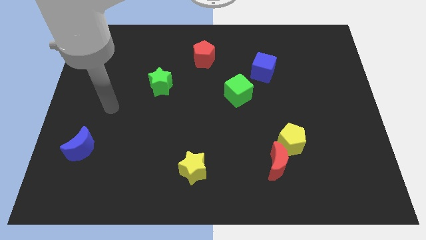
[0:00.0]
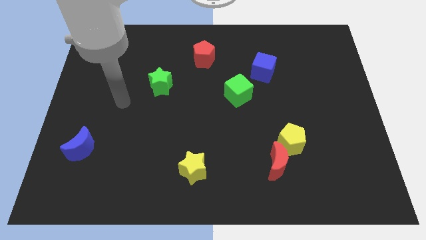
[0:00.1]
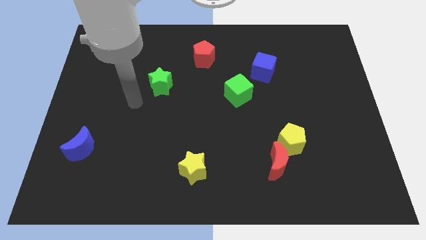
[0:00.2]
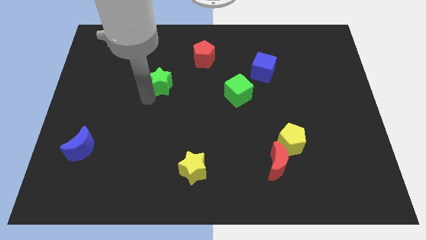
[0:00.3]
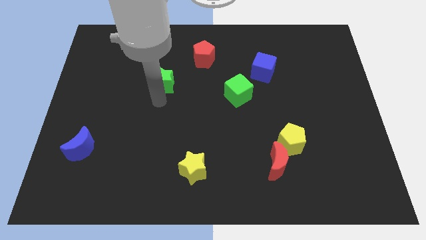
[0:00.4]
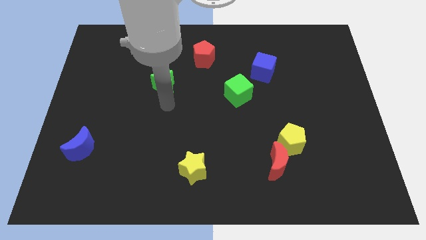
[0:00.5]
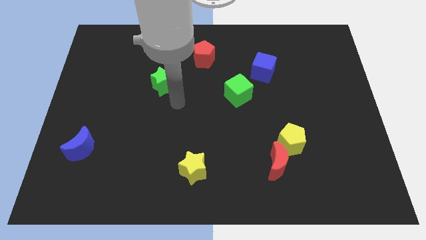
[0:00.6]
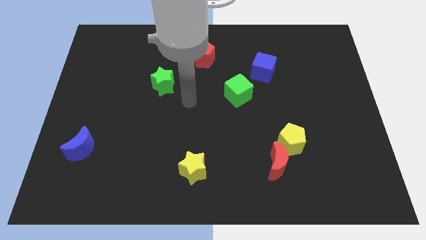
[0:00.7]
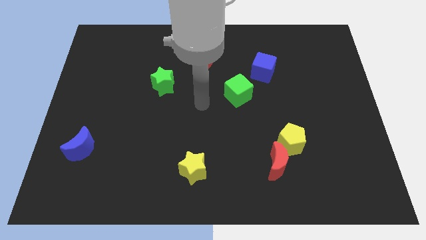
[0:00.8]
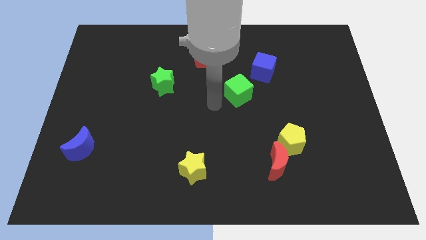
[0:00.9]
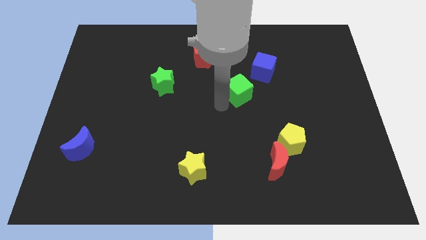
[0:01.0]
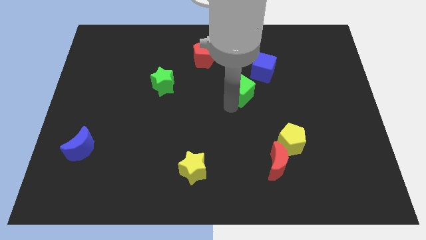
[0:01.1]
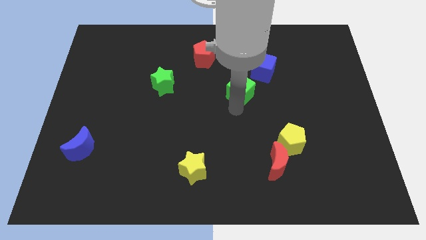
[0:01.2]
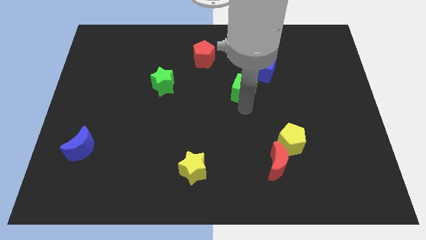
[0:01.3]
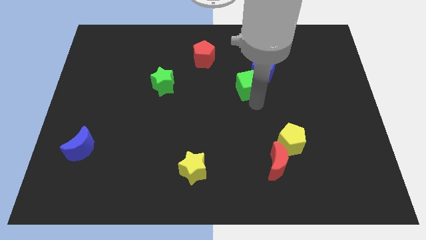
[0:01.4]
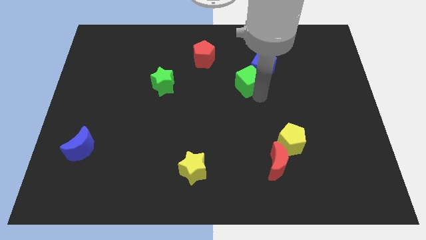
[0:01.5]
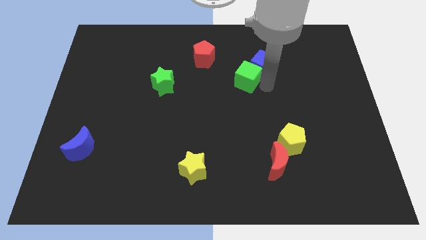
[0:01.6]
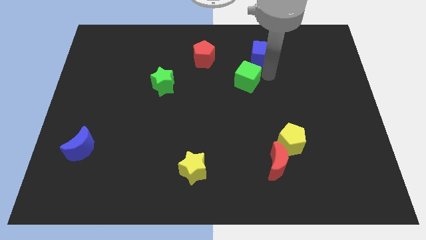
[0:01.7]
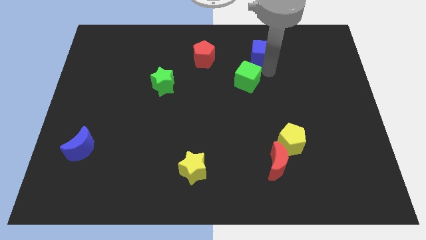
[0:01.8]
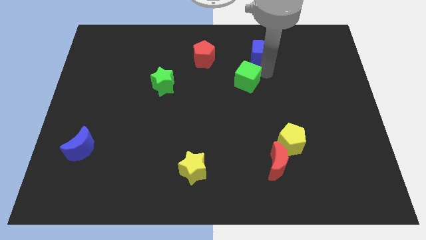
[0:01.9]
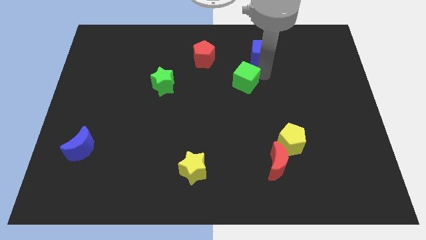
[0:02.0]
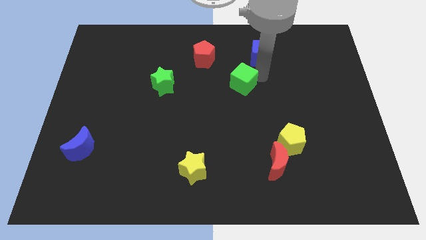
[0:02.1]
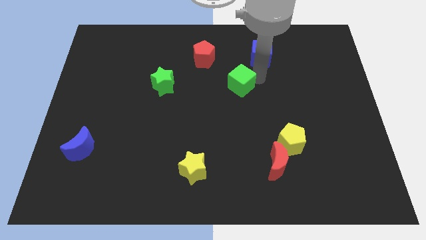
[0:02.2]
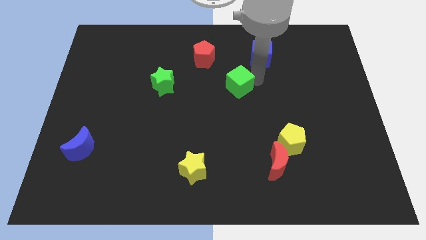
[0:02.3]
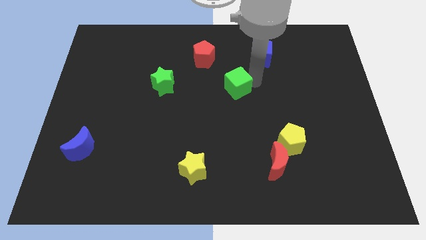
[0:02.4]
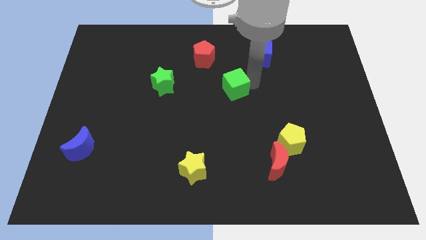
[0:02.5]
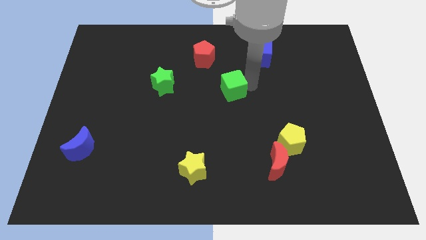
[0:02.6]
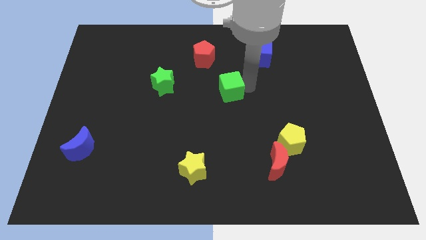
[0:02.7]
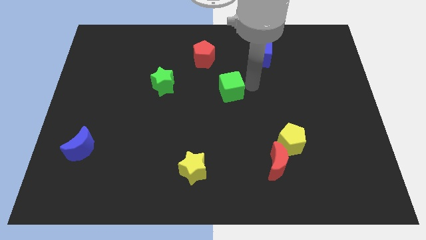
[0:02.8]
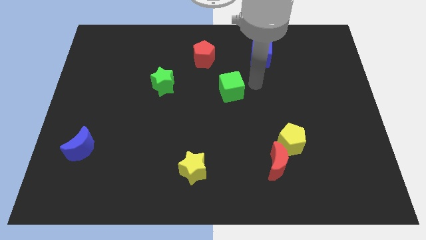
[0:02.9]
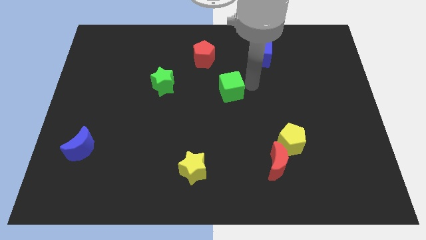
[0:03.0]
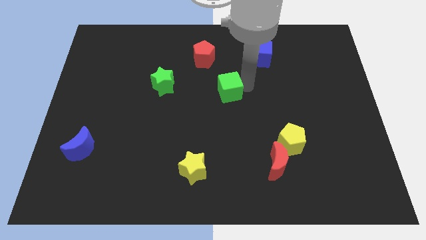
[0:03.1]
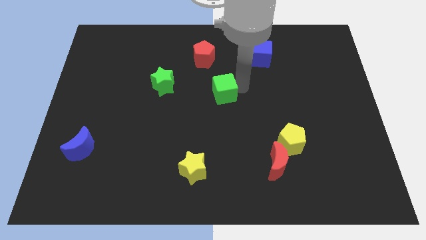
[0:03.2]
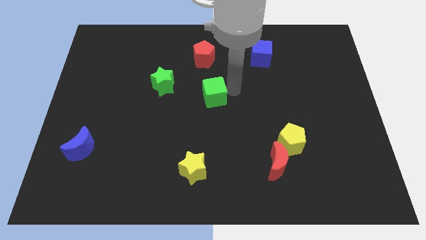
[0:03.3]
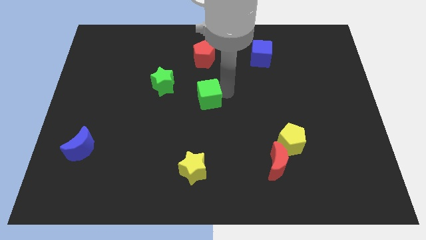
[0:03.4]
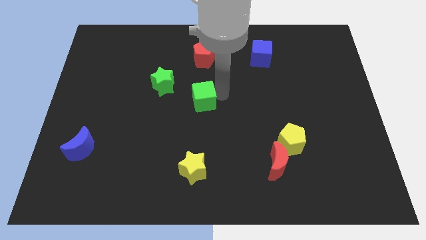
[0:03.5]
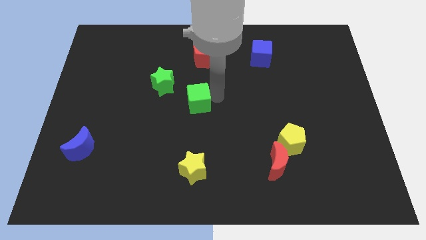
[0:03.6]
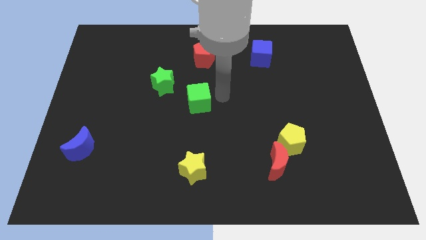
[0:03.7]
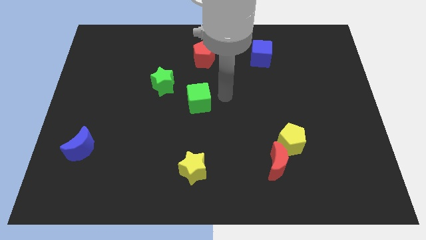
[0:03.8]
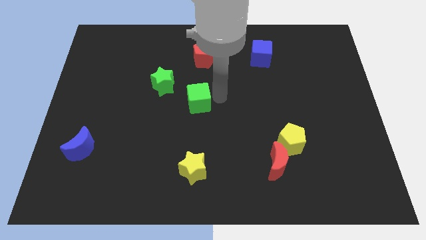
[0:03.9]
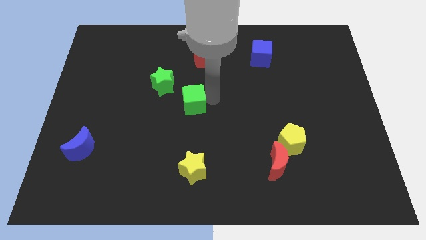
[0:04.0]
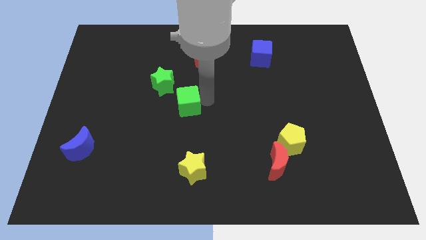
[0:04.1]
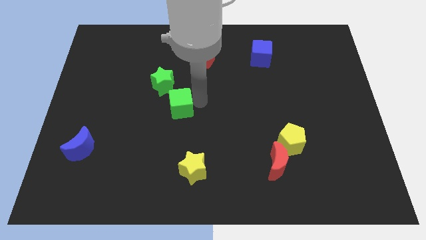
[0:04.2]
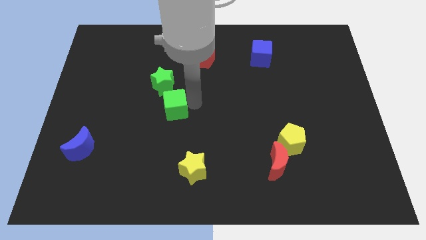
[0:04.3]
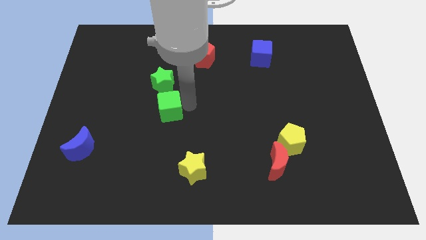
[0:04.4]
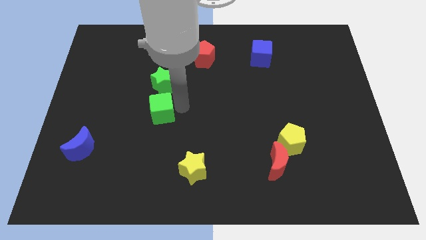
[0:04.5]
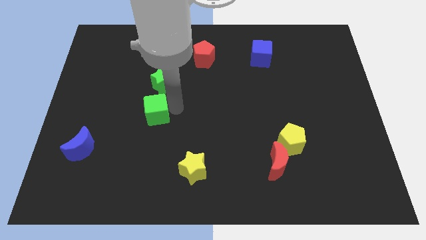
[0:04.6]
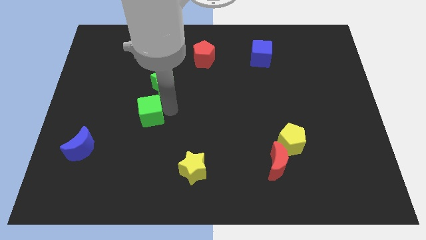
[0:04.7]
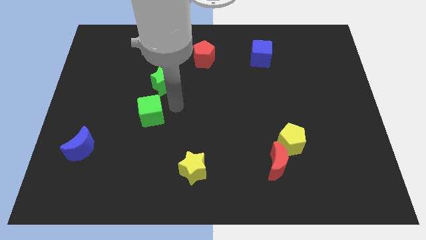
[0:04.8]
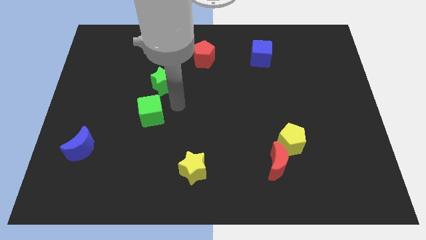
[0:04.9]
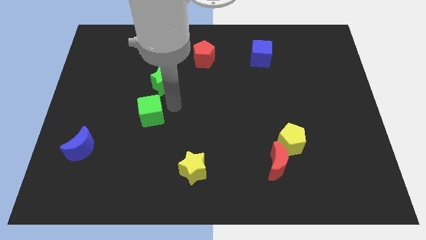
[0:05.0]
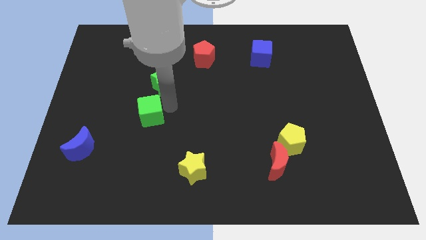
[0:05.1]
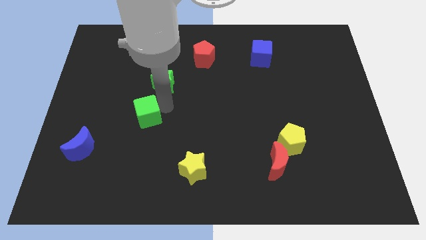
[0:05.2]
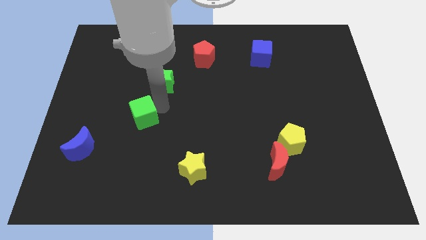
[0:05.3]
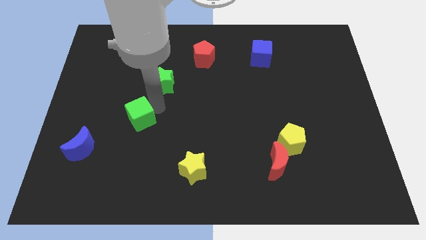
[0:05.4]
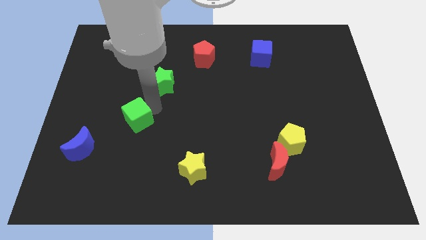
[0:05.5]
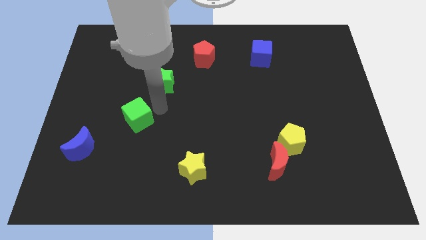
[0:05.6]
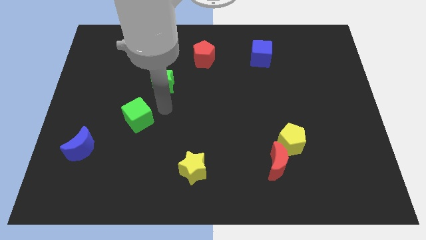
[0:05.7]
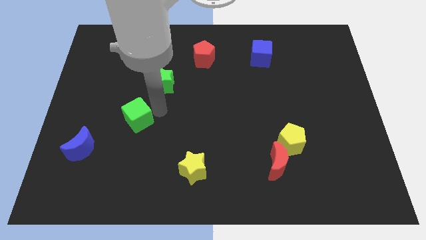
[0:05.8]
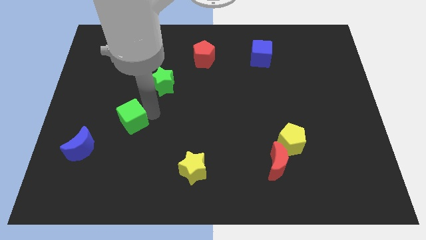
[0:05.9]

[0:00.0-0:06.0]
slide the green cube to the top right of the blue moon

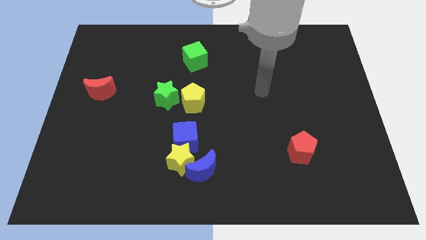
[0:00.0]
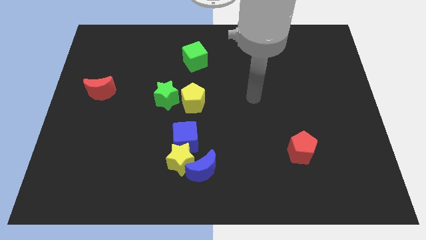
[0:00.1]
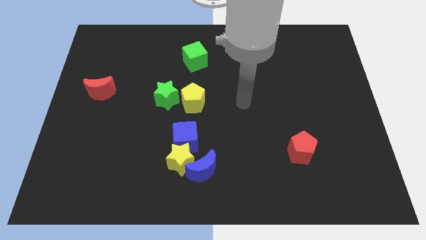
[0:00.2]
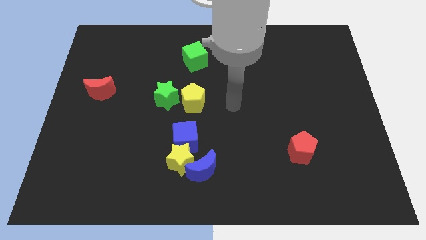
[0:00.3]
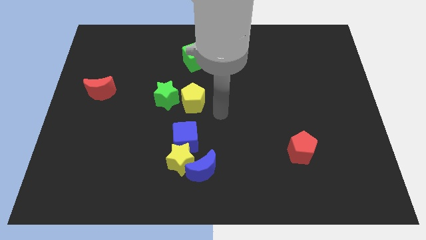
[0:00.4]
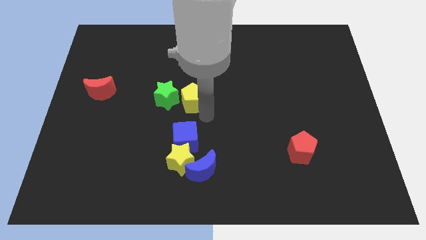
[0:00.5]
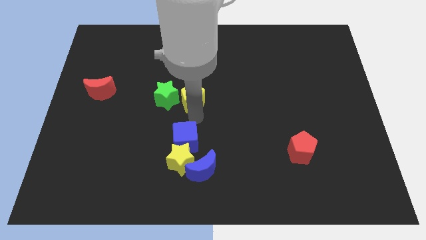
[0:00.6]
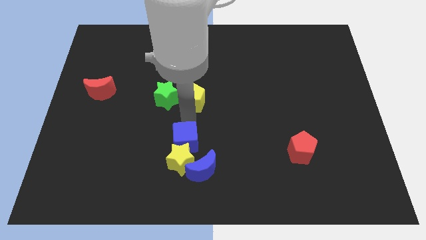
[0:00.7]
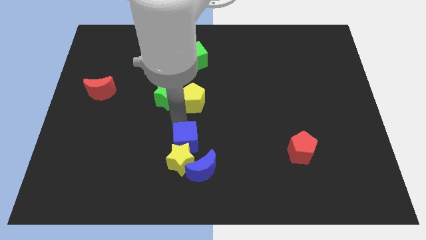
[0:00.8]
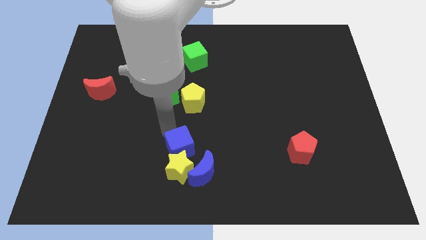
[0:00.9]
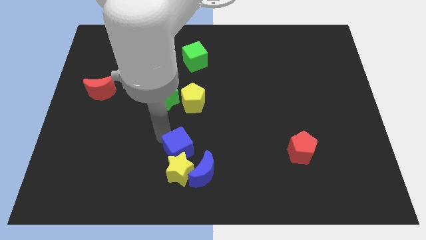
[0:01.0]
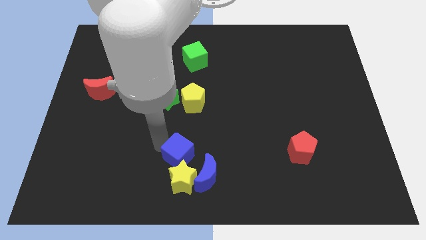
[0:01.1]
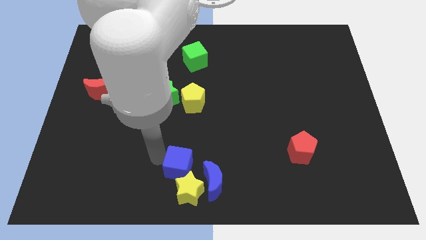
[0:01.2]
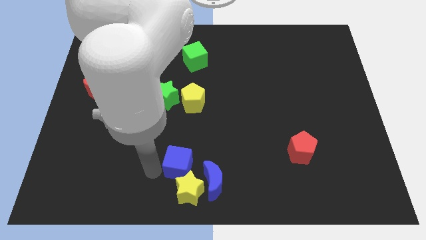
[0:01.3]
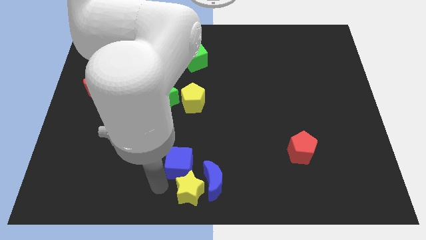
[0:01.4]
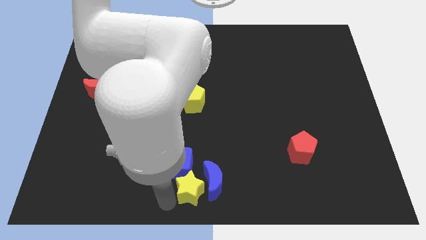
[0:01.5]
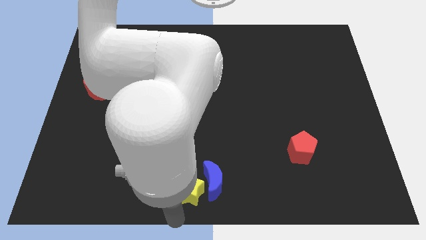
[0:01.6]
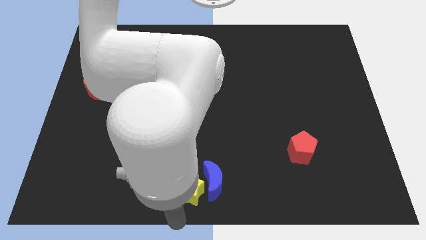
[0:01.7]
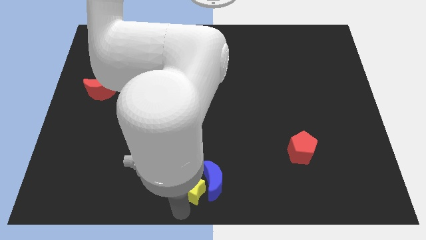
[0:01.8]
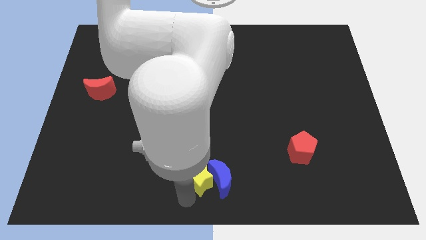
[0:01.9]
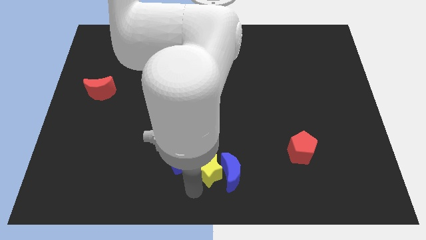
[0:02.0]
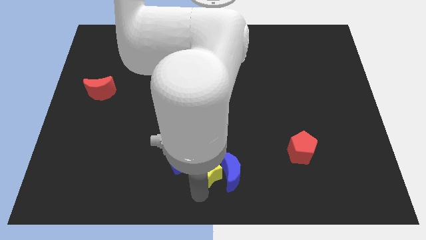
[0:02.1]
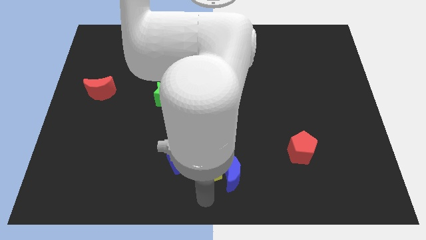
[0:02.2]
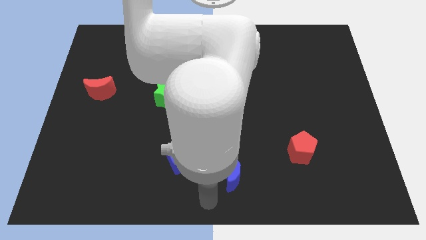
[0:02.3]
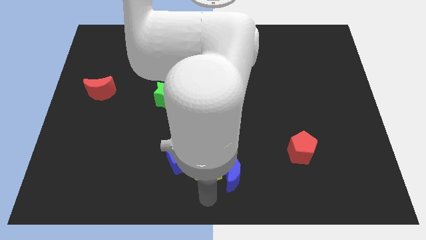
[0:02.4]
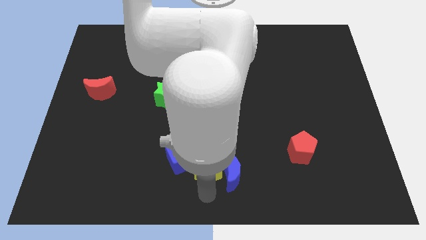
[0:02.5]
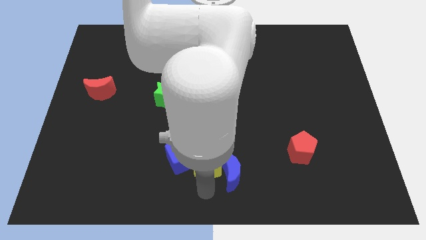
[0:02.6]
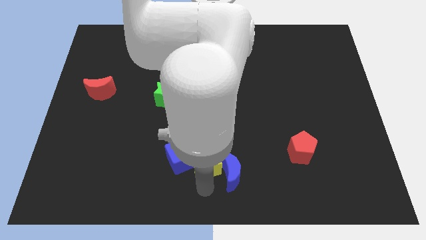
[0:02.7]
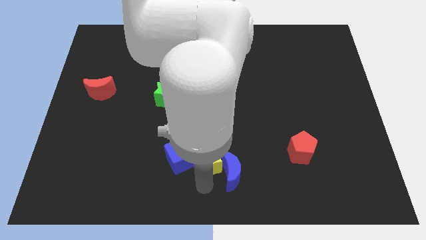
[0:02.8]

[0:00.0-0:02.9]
put the yellow star diagonally up and to the right of the blue cube
